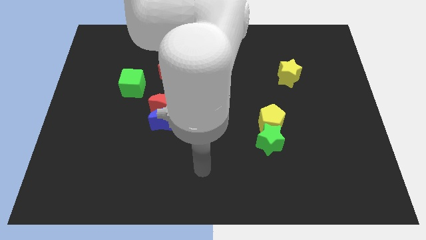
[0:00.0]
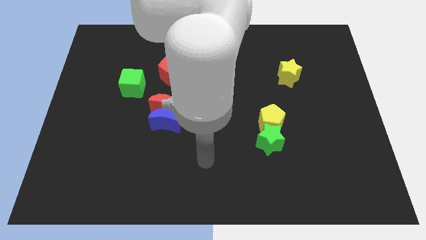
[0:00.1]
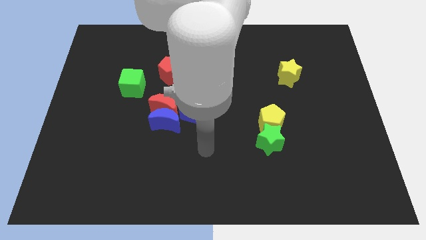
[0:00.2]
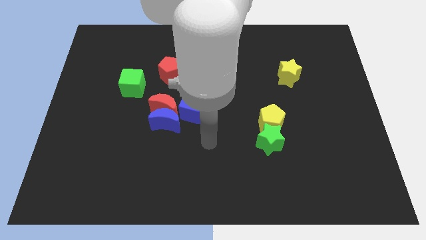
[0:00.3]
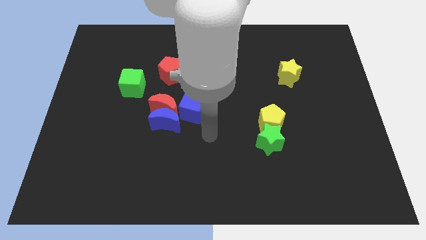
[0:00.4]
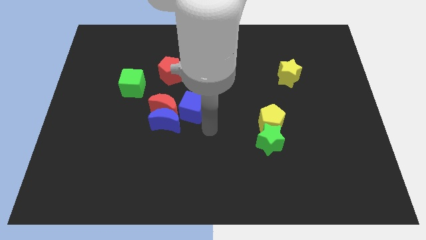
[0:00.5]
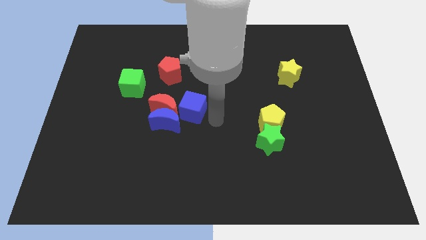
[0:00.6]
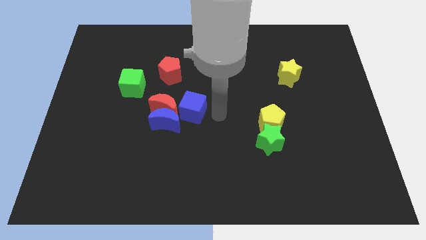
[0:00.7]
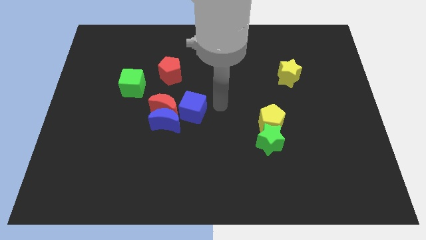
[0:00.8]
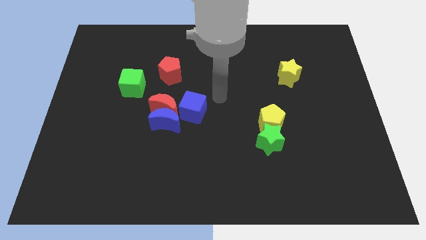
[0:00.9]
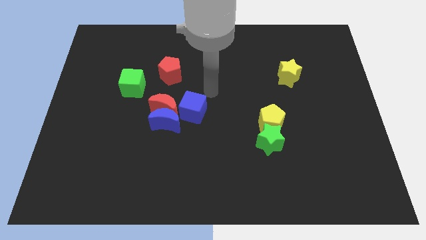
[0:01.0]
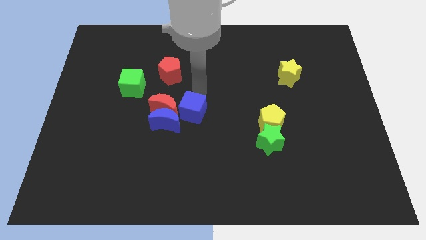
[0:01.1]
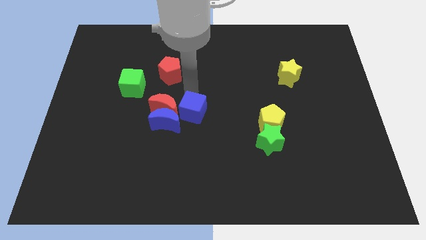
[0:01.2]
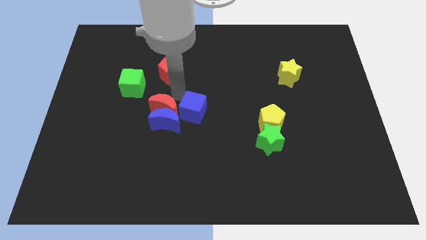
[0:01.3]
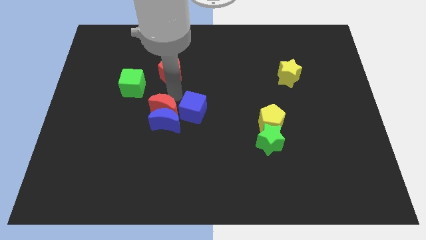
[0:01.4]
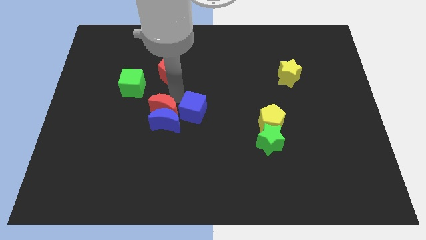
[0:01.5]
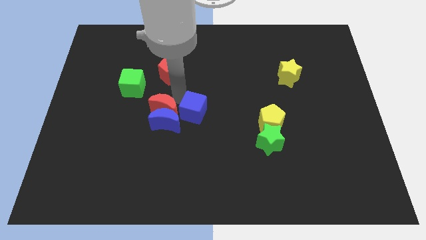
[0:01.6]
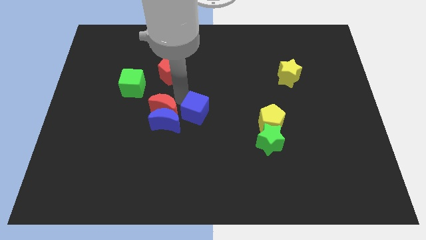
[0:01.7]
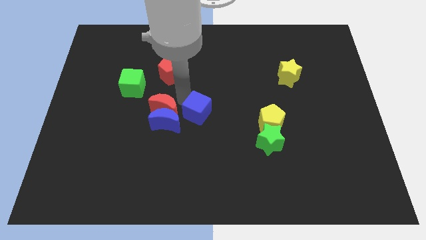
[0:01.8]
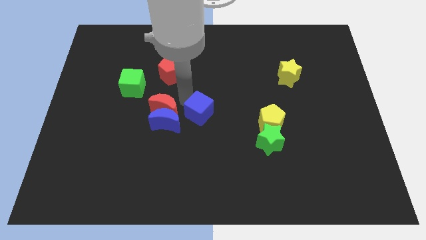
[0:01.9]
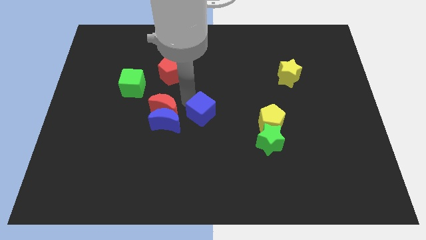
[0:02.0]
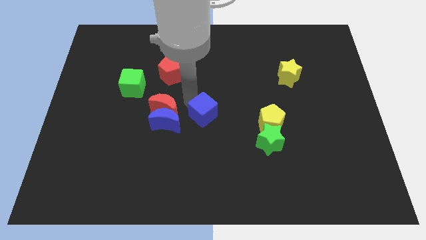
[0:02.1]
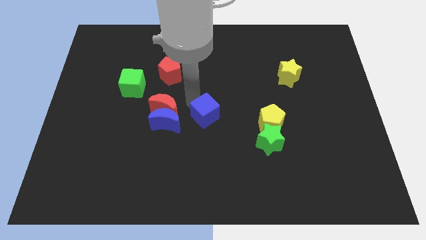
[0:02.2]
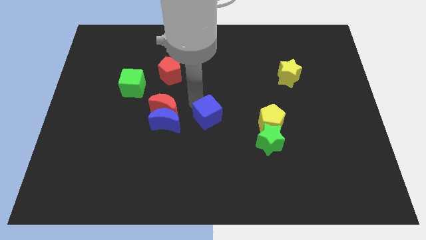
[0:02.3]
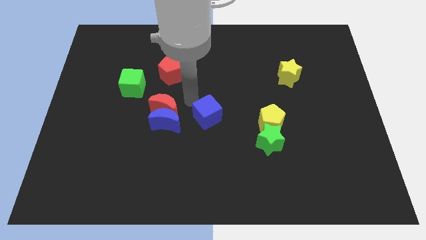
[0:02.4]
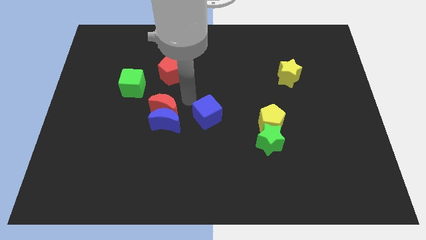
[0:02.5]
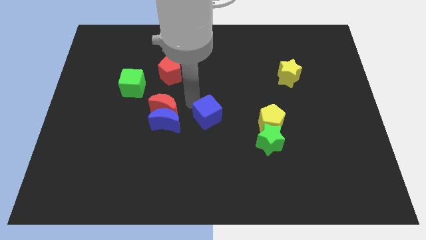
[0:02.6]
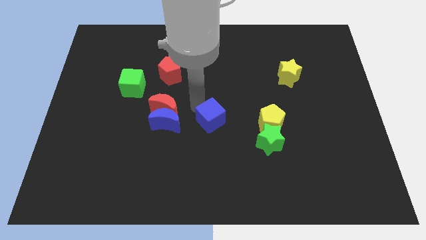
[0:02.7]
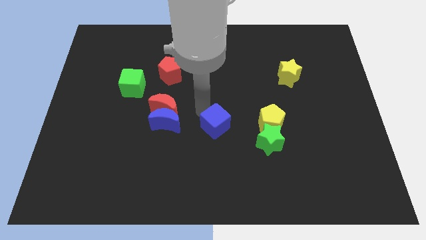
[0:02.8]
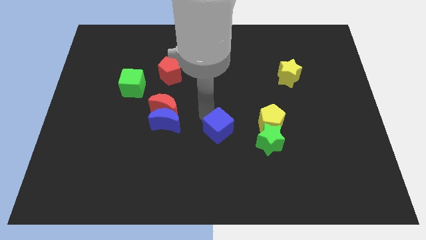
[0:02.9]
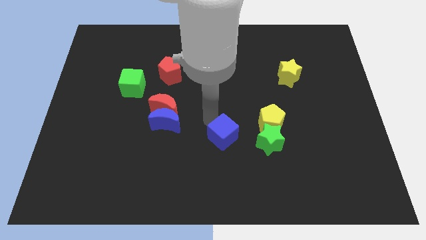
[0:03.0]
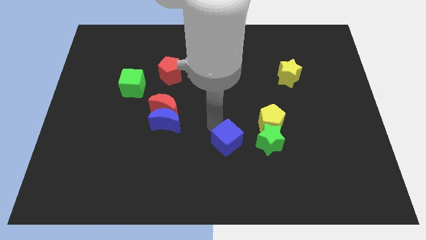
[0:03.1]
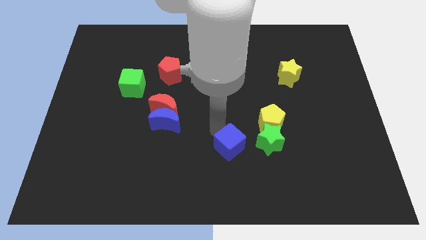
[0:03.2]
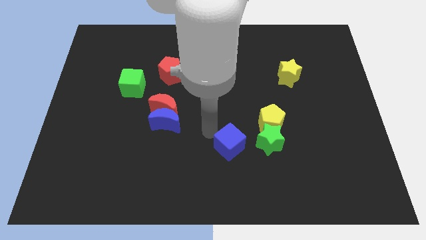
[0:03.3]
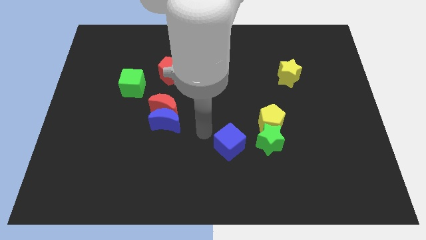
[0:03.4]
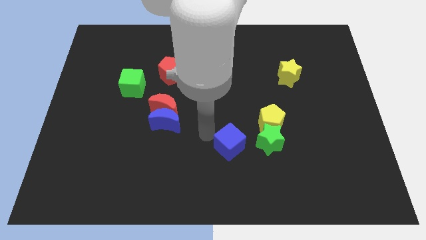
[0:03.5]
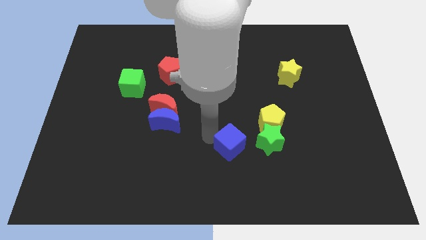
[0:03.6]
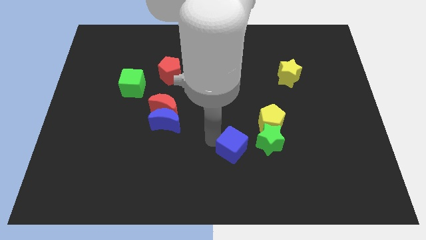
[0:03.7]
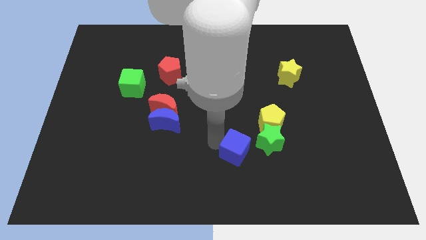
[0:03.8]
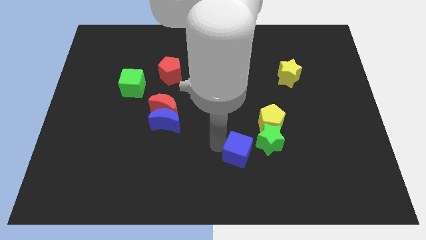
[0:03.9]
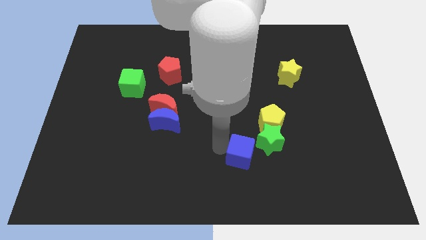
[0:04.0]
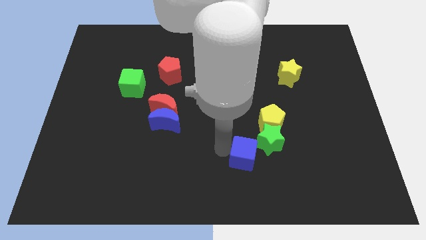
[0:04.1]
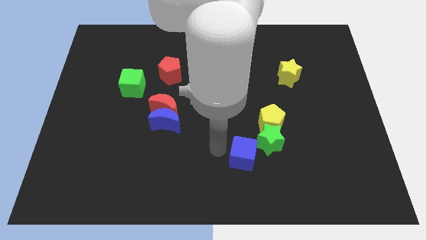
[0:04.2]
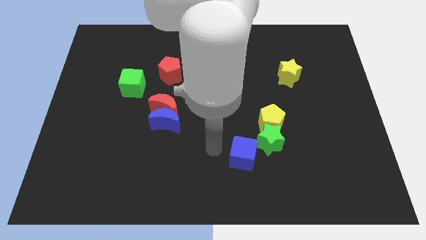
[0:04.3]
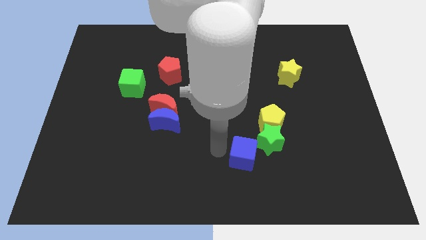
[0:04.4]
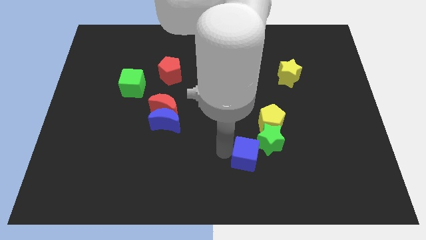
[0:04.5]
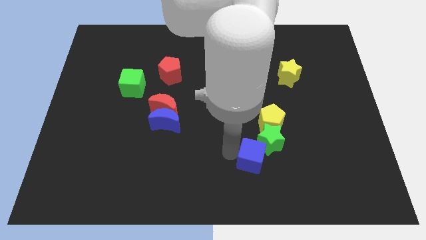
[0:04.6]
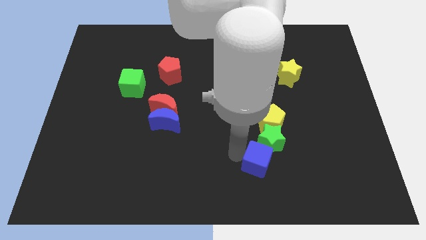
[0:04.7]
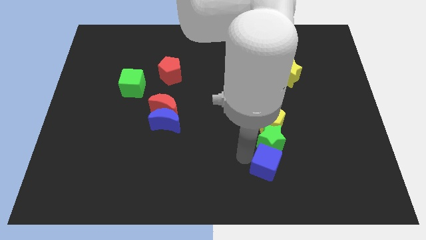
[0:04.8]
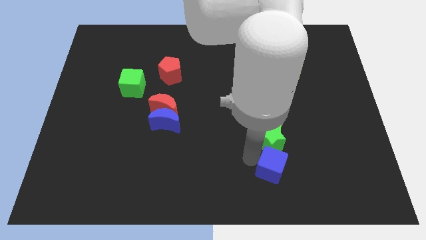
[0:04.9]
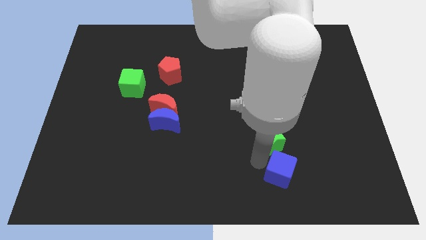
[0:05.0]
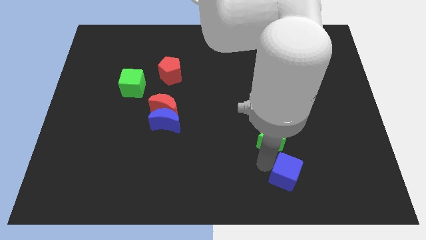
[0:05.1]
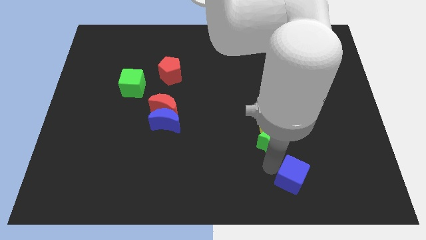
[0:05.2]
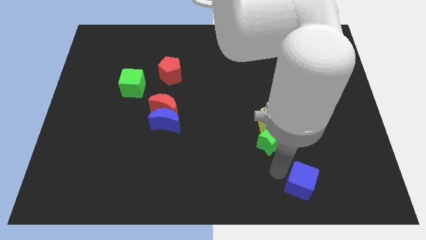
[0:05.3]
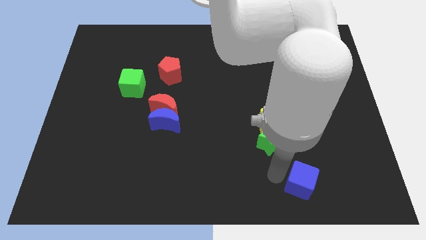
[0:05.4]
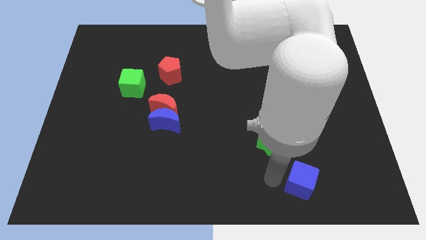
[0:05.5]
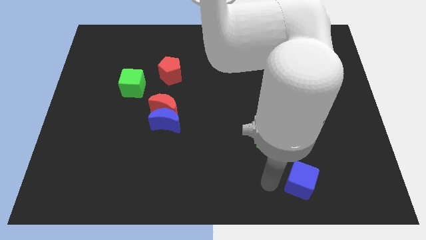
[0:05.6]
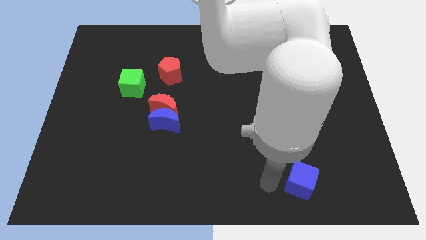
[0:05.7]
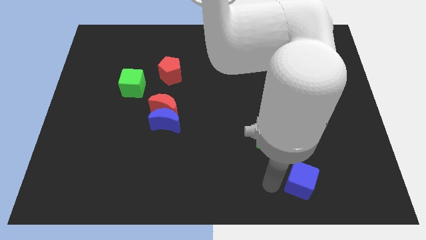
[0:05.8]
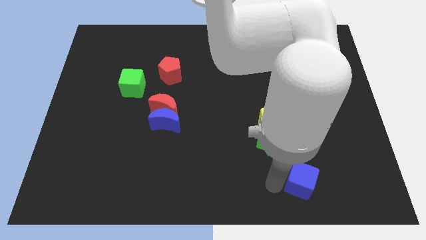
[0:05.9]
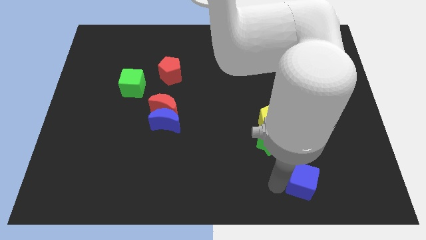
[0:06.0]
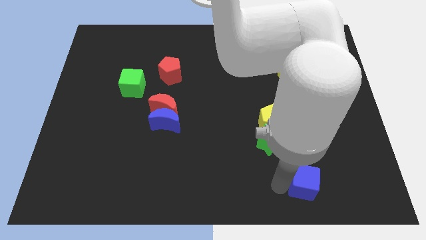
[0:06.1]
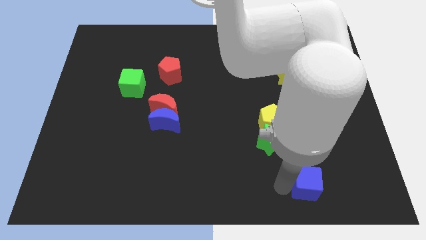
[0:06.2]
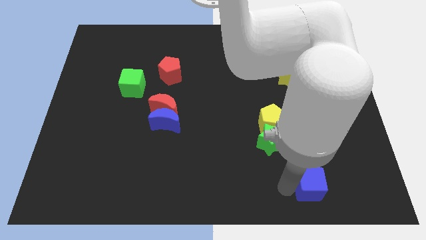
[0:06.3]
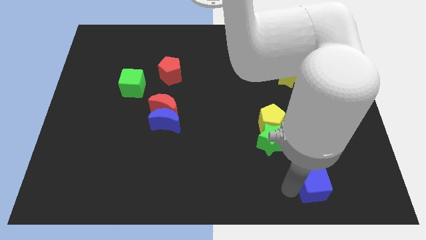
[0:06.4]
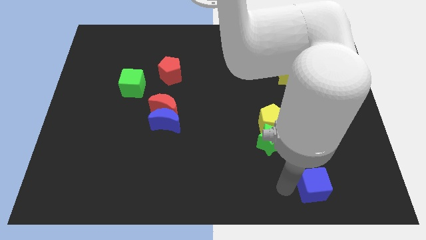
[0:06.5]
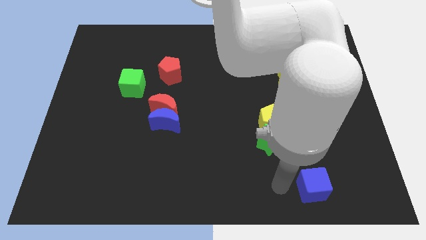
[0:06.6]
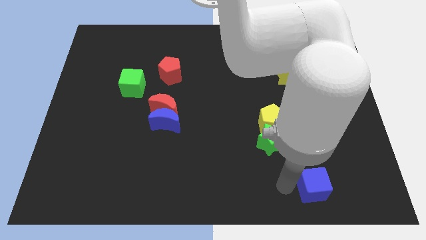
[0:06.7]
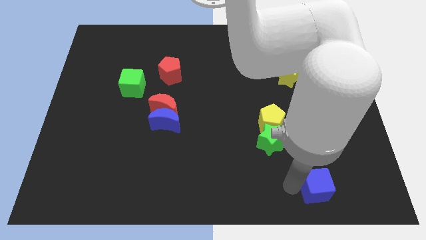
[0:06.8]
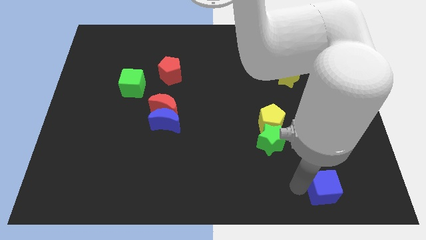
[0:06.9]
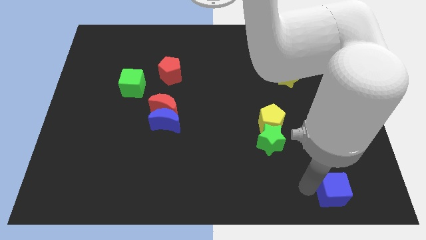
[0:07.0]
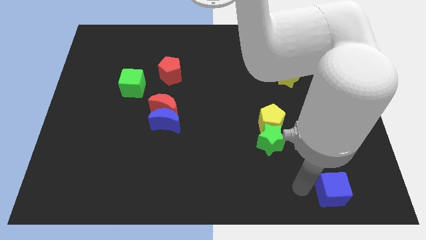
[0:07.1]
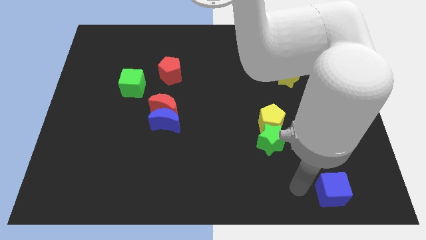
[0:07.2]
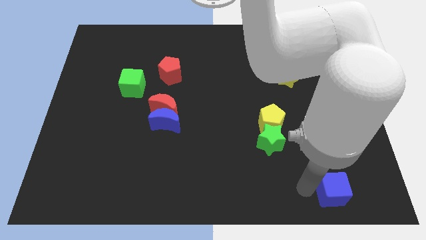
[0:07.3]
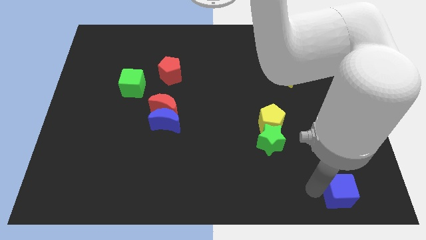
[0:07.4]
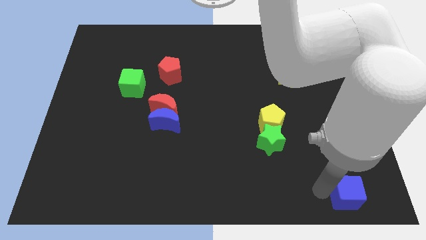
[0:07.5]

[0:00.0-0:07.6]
put the blue cube to the bottom right of the board
